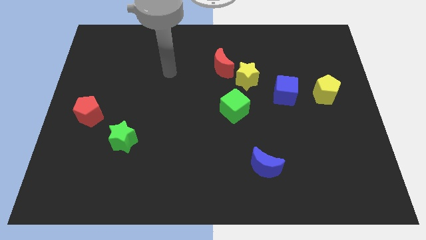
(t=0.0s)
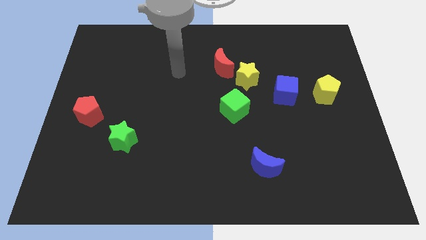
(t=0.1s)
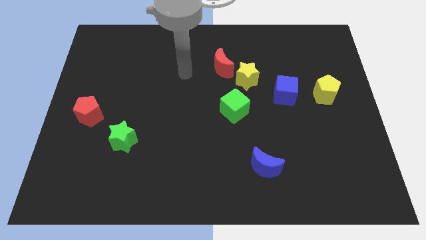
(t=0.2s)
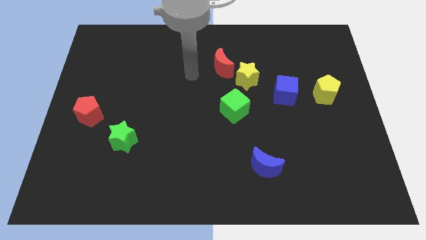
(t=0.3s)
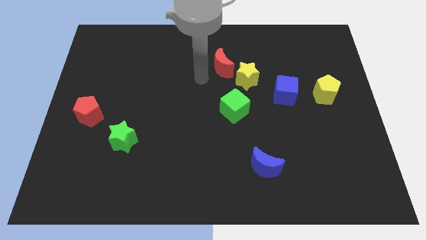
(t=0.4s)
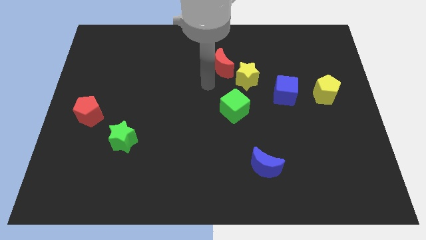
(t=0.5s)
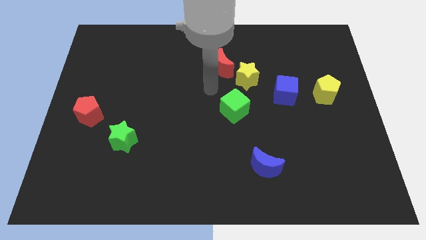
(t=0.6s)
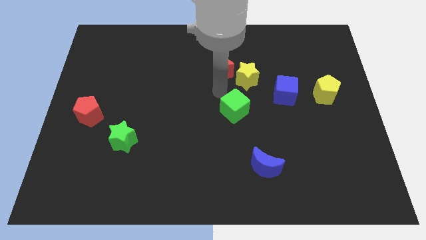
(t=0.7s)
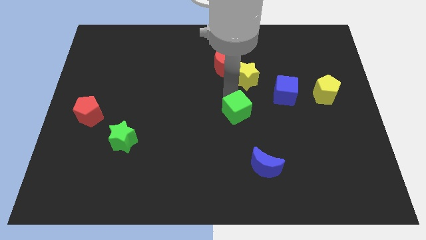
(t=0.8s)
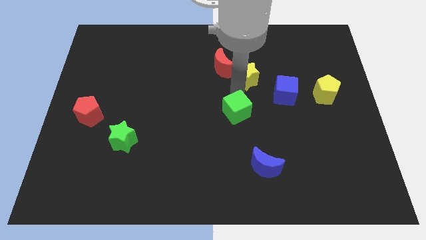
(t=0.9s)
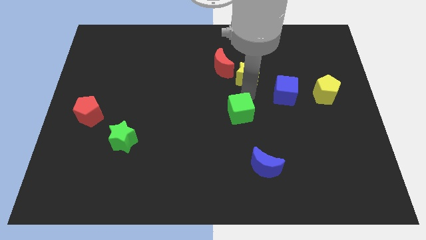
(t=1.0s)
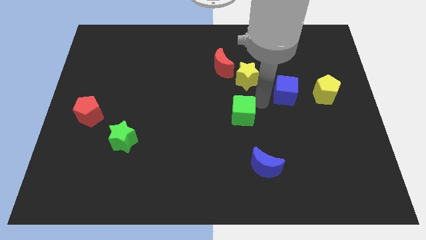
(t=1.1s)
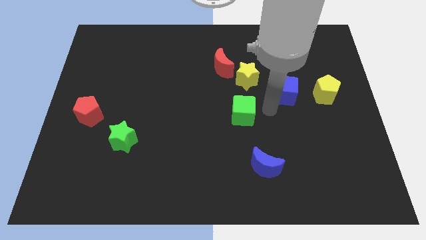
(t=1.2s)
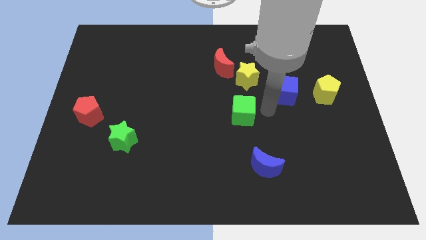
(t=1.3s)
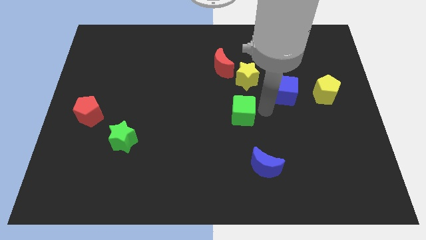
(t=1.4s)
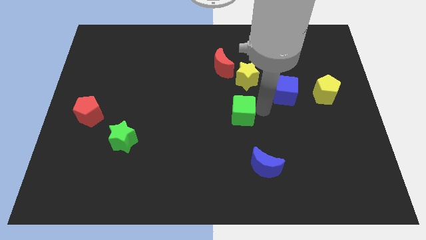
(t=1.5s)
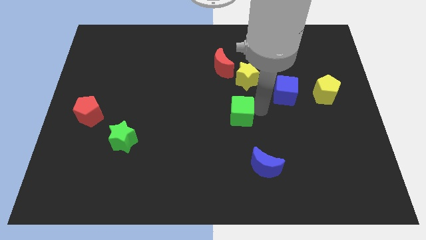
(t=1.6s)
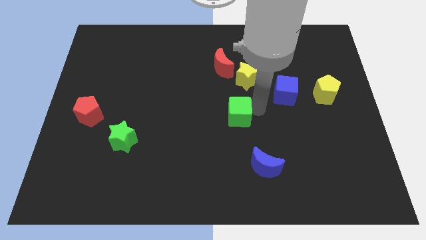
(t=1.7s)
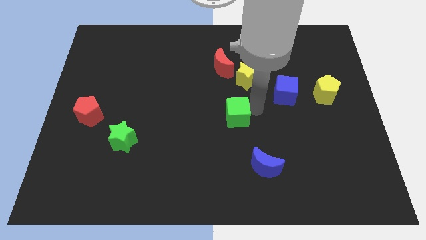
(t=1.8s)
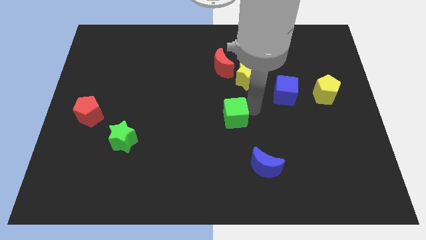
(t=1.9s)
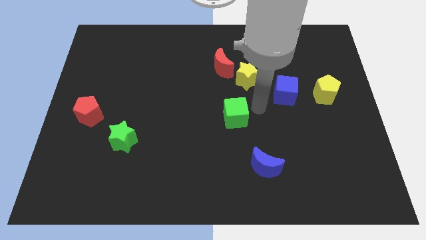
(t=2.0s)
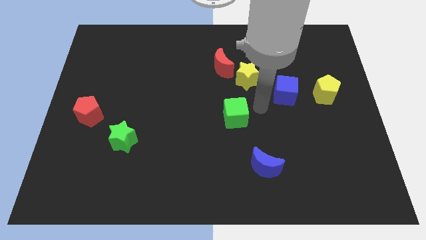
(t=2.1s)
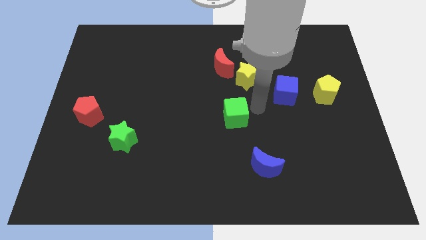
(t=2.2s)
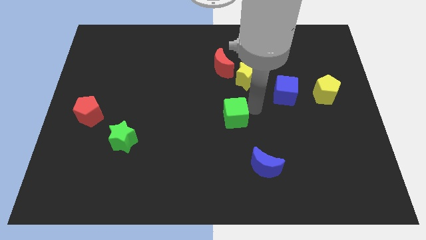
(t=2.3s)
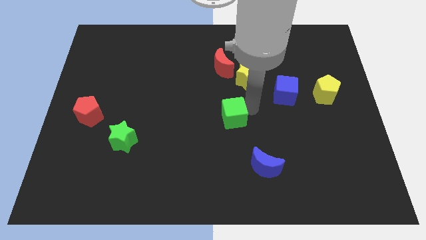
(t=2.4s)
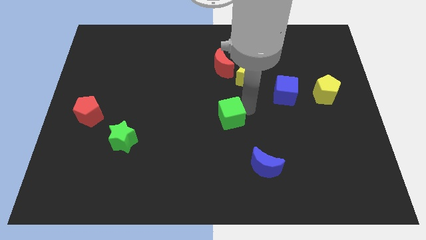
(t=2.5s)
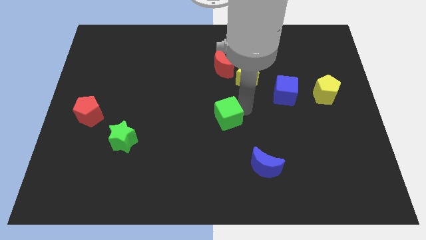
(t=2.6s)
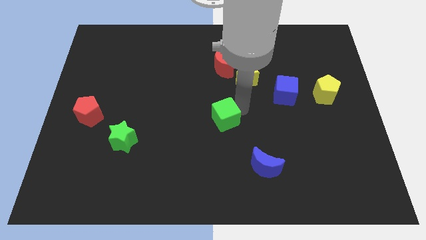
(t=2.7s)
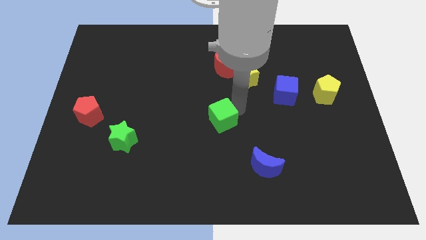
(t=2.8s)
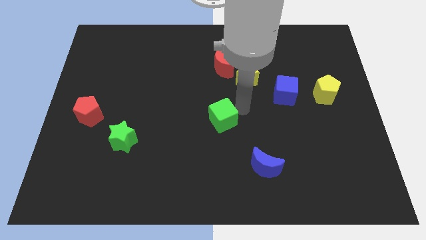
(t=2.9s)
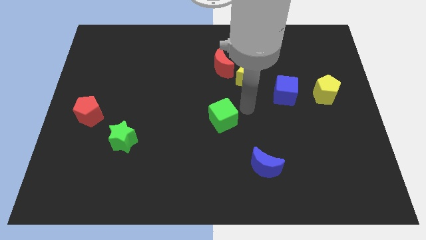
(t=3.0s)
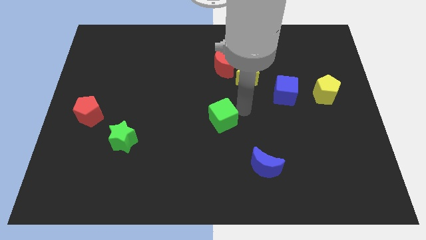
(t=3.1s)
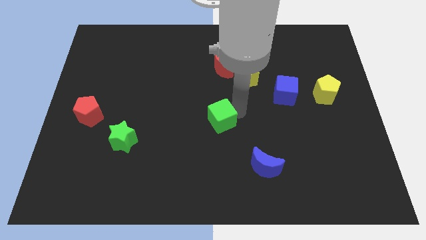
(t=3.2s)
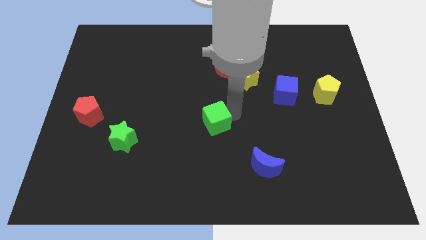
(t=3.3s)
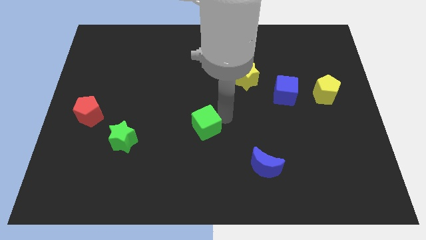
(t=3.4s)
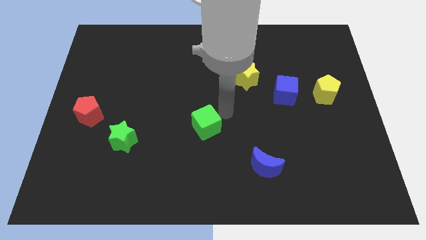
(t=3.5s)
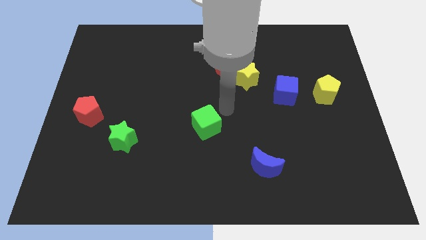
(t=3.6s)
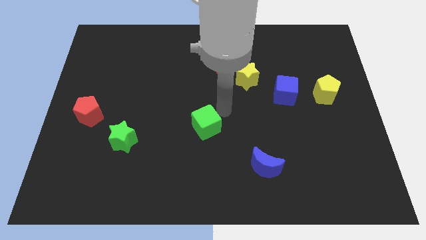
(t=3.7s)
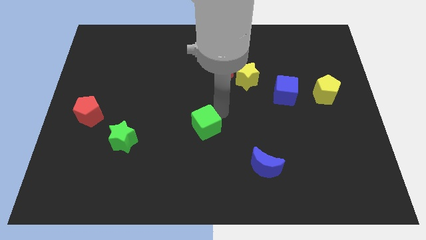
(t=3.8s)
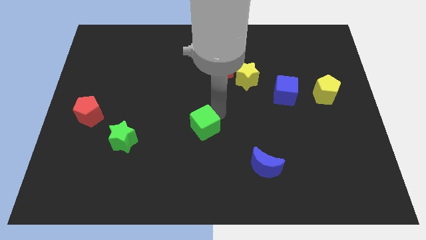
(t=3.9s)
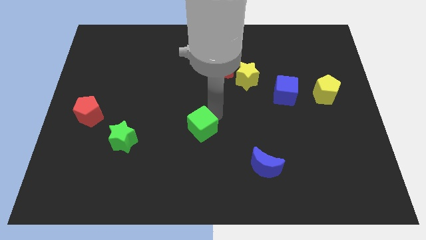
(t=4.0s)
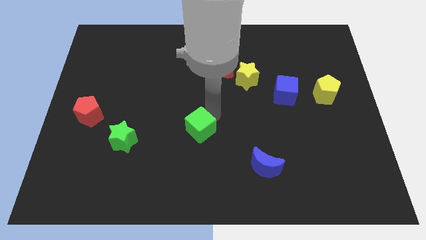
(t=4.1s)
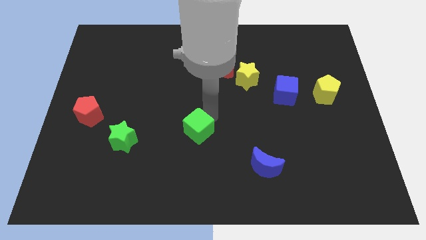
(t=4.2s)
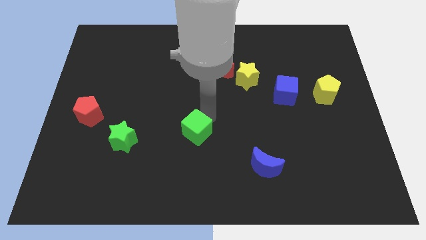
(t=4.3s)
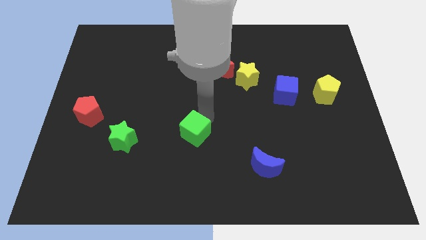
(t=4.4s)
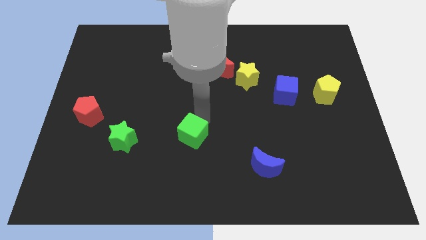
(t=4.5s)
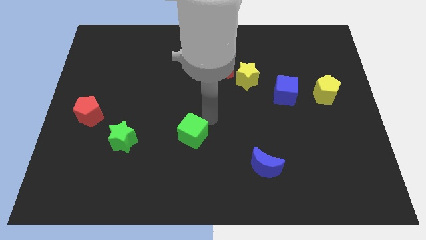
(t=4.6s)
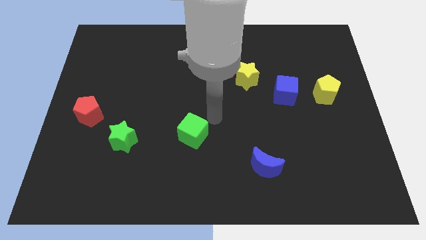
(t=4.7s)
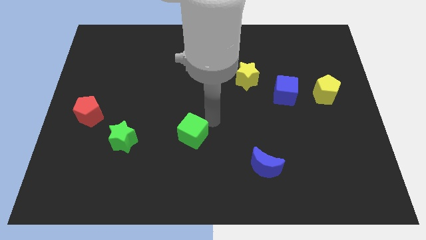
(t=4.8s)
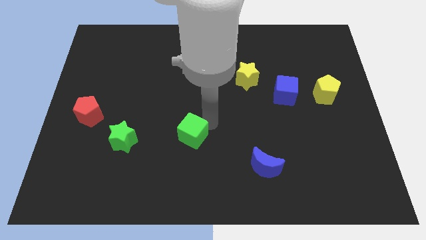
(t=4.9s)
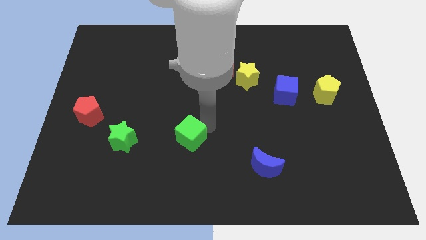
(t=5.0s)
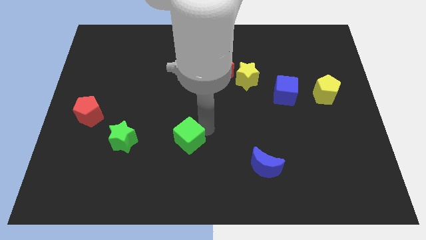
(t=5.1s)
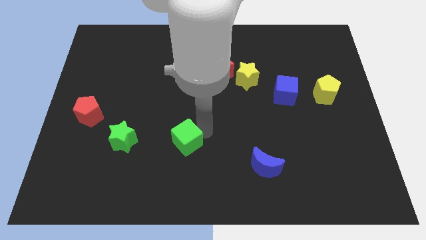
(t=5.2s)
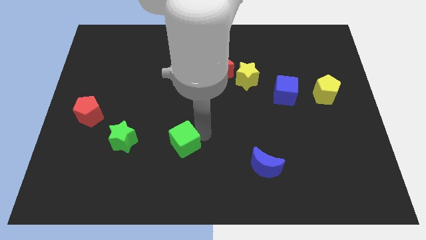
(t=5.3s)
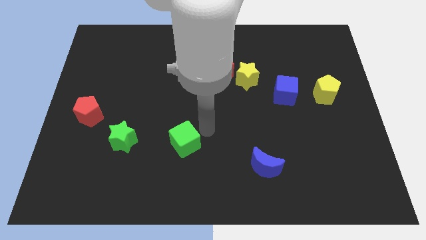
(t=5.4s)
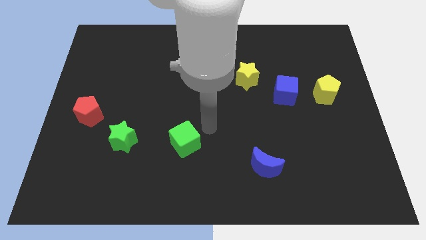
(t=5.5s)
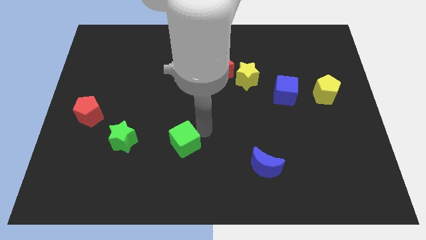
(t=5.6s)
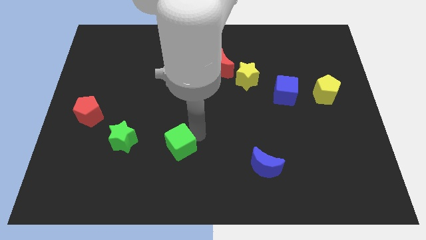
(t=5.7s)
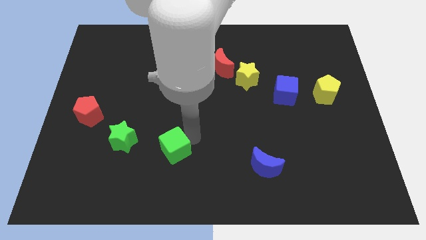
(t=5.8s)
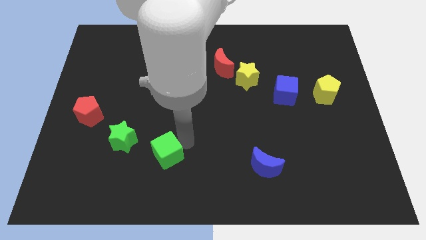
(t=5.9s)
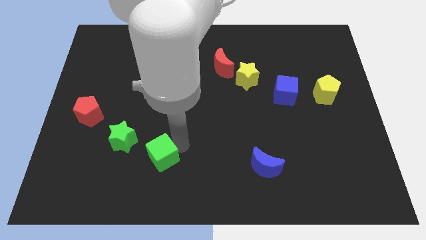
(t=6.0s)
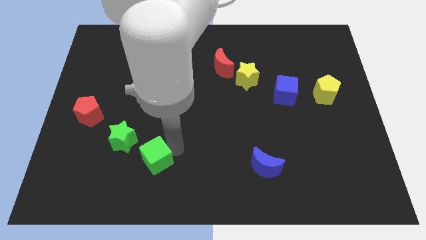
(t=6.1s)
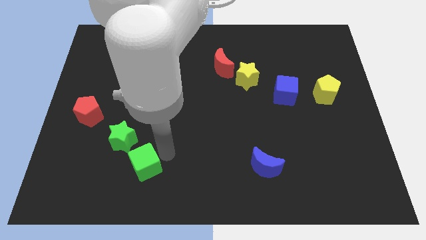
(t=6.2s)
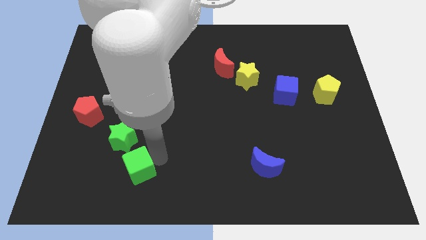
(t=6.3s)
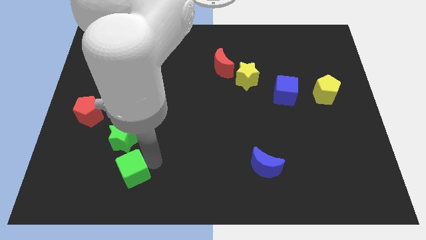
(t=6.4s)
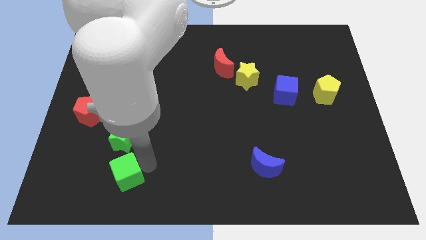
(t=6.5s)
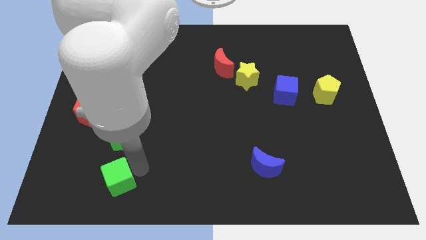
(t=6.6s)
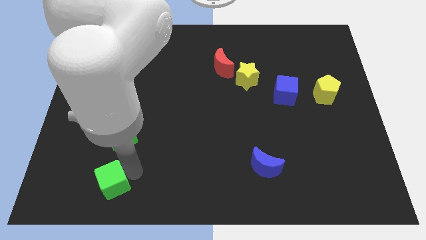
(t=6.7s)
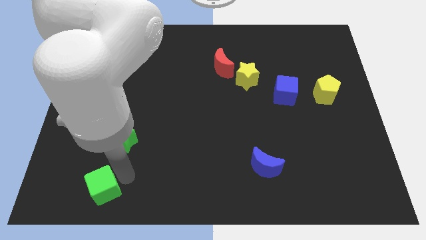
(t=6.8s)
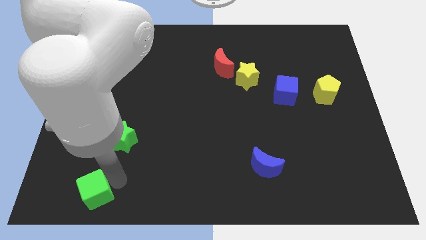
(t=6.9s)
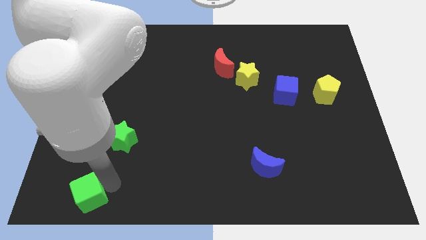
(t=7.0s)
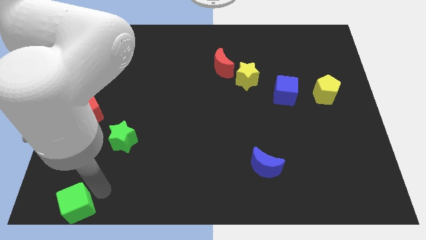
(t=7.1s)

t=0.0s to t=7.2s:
push the green cube to the bottom left

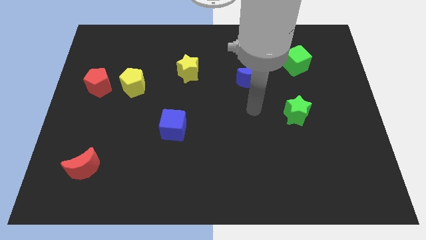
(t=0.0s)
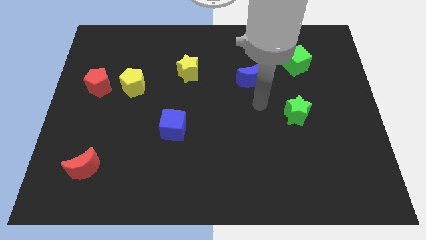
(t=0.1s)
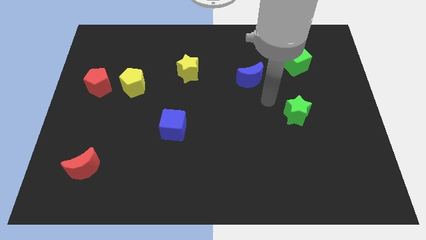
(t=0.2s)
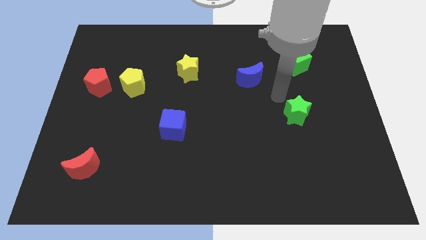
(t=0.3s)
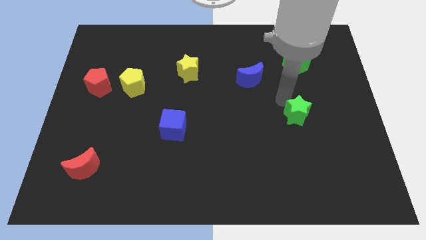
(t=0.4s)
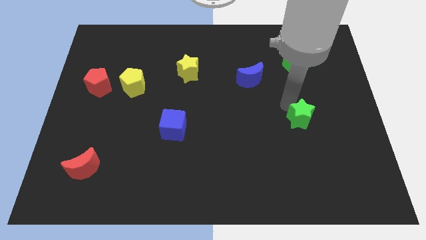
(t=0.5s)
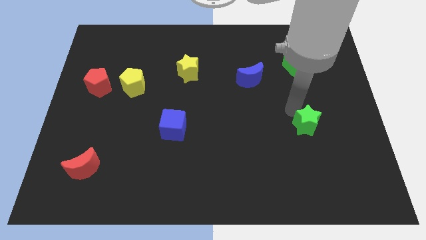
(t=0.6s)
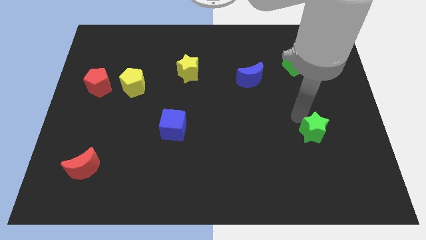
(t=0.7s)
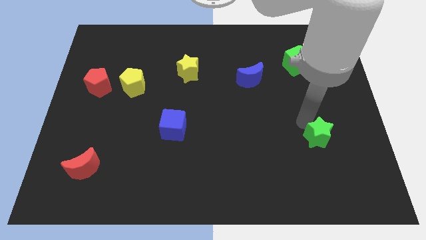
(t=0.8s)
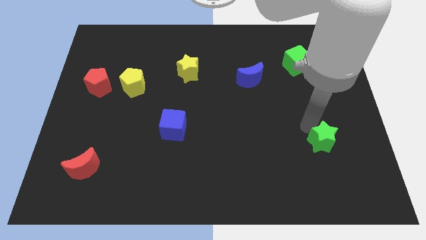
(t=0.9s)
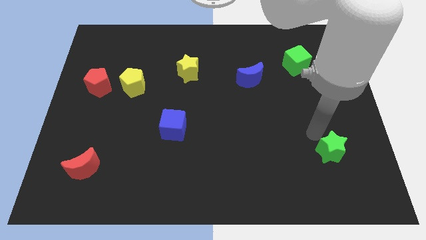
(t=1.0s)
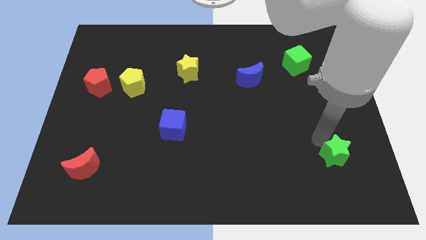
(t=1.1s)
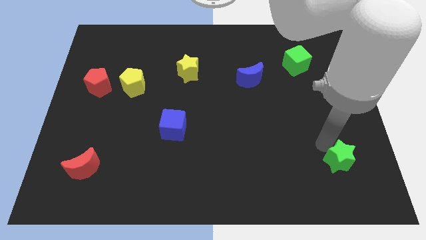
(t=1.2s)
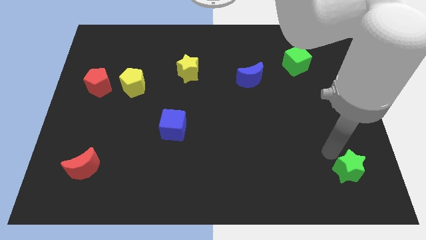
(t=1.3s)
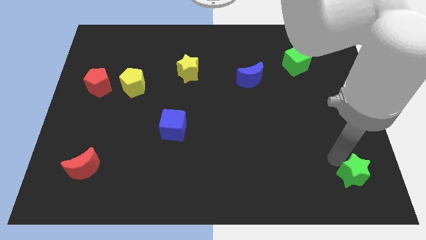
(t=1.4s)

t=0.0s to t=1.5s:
slide the green star to the lower right corner
